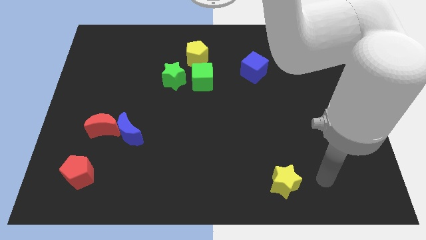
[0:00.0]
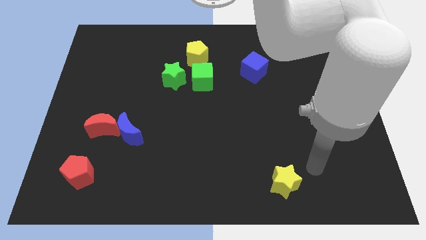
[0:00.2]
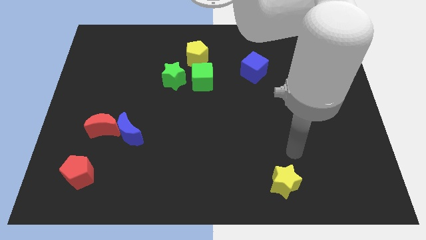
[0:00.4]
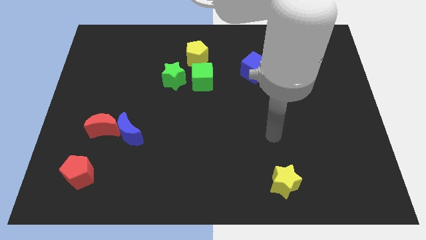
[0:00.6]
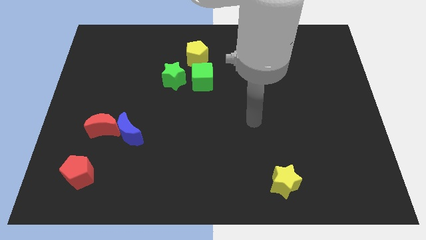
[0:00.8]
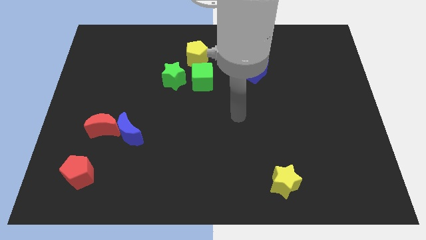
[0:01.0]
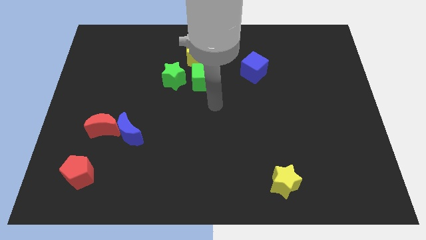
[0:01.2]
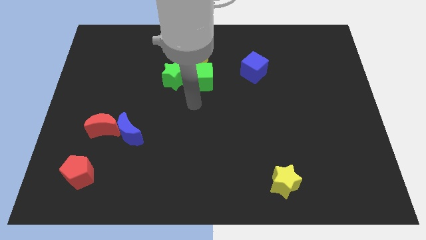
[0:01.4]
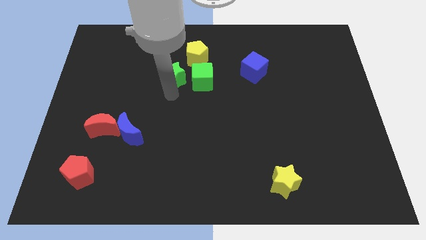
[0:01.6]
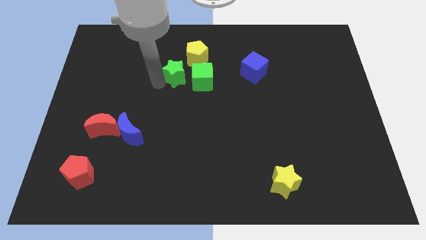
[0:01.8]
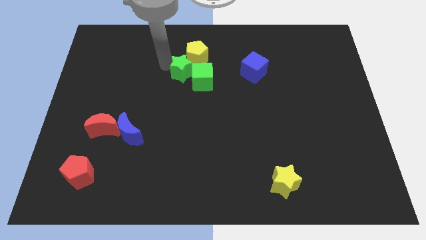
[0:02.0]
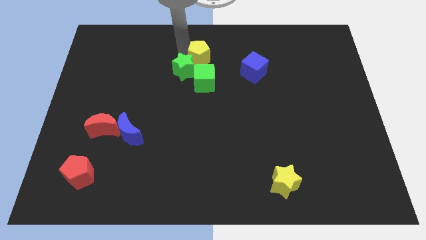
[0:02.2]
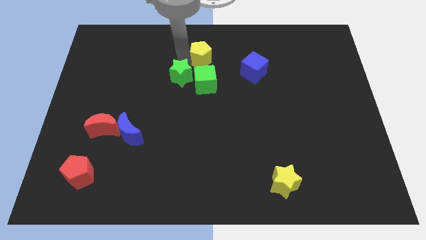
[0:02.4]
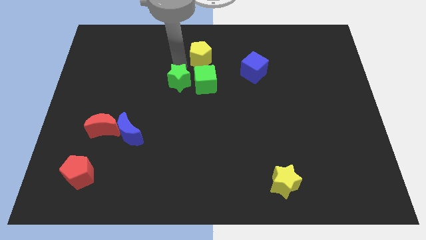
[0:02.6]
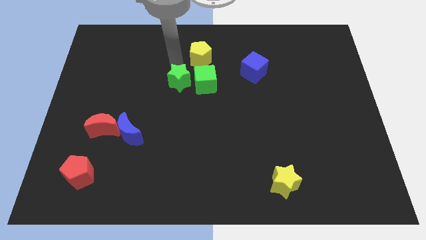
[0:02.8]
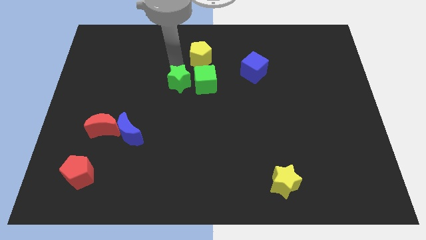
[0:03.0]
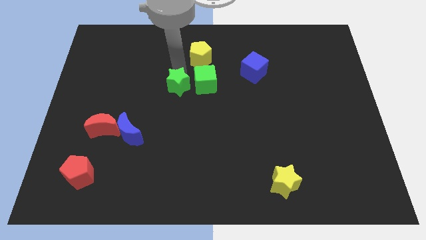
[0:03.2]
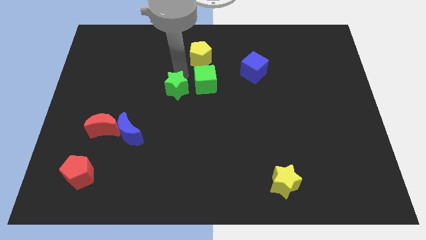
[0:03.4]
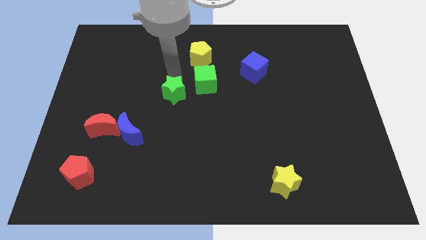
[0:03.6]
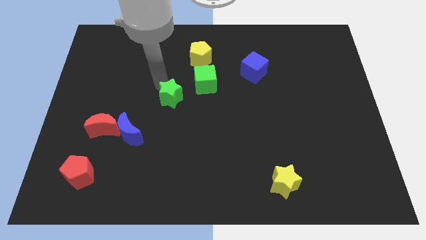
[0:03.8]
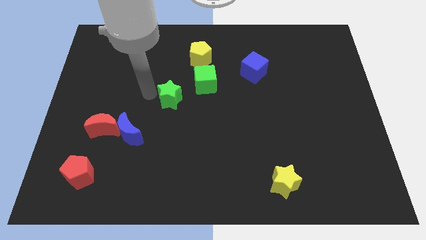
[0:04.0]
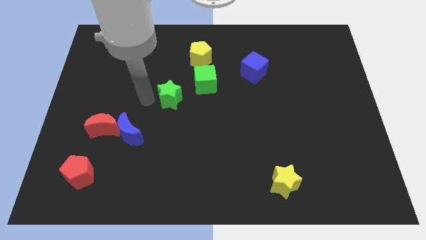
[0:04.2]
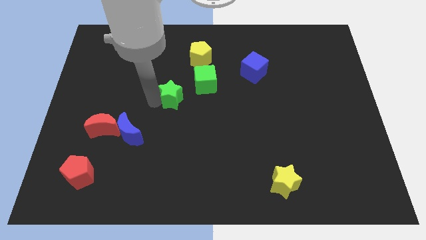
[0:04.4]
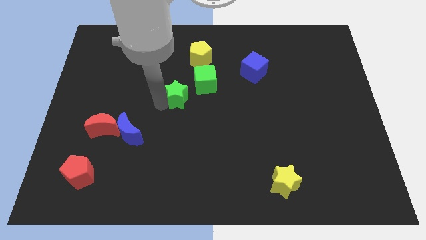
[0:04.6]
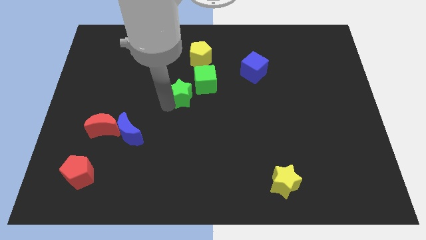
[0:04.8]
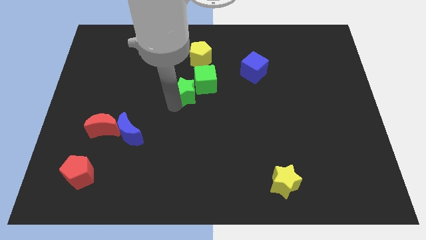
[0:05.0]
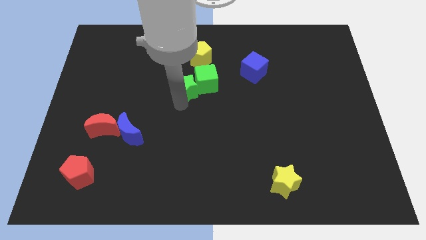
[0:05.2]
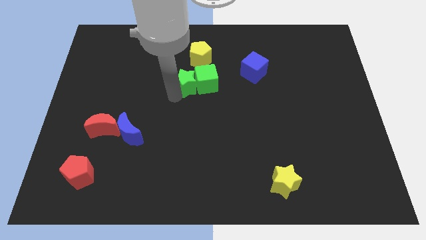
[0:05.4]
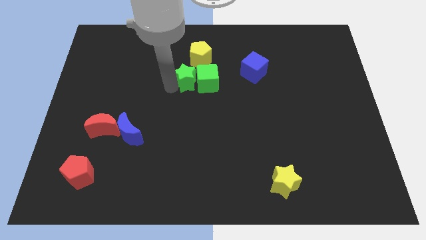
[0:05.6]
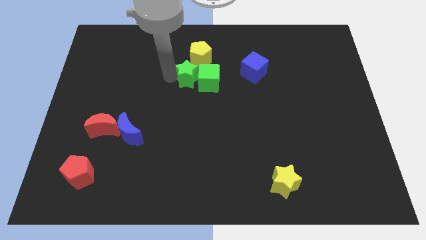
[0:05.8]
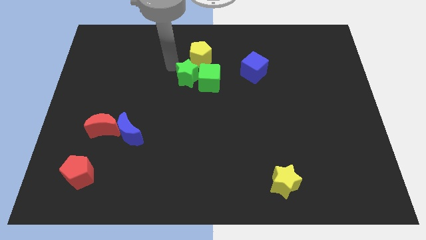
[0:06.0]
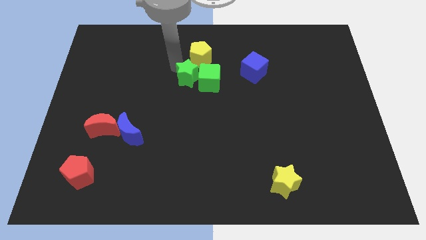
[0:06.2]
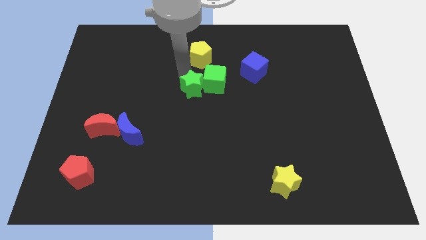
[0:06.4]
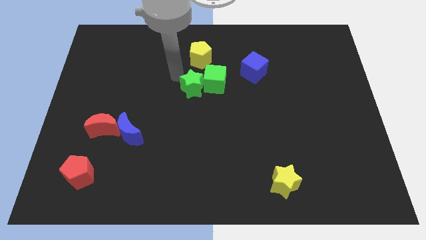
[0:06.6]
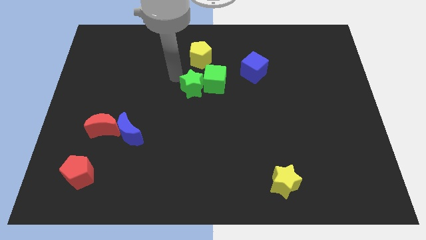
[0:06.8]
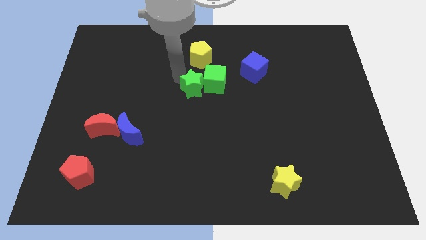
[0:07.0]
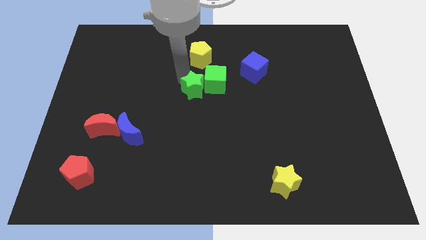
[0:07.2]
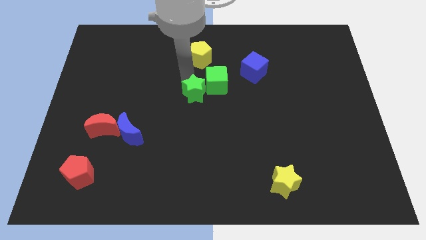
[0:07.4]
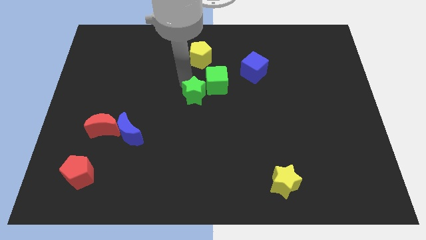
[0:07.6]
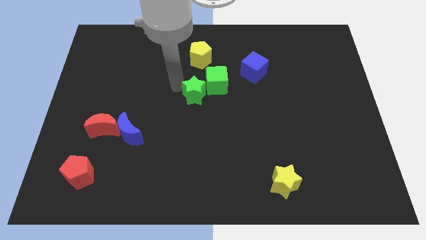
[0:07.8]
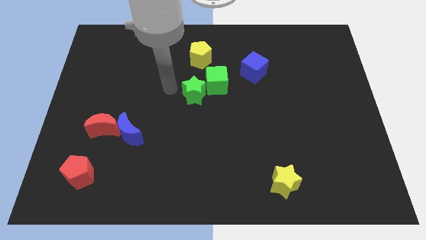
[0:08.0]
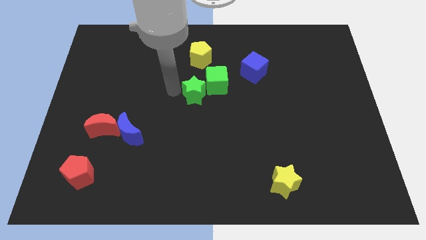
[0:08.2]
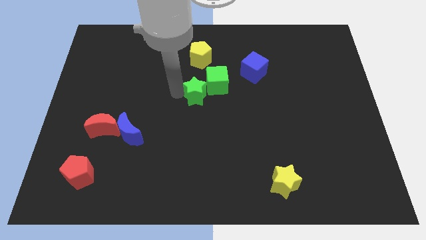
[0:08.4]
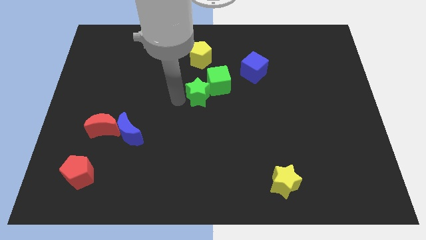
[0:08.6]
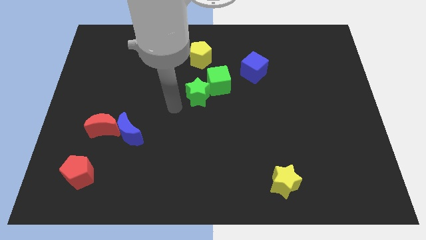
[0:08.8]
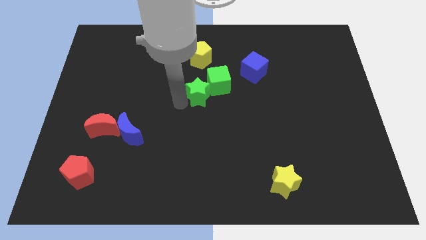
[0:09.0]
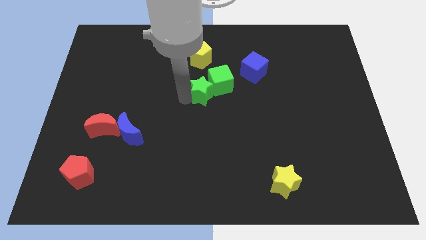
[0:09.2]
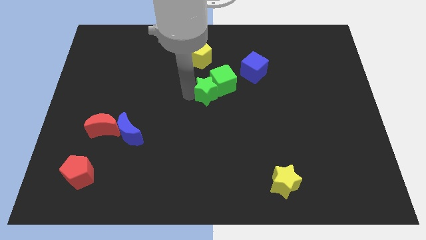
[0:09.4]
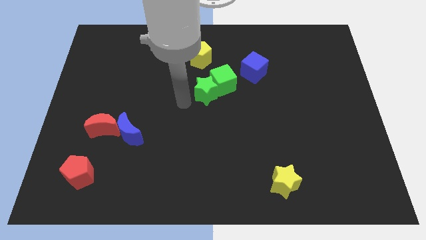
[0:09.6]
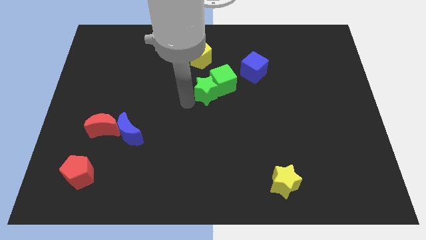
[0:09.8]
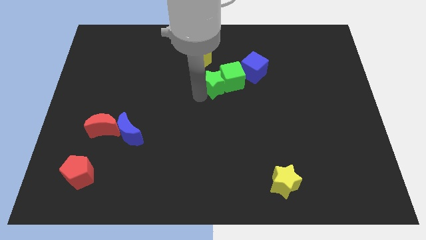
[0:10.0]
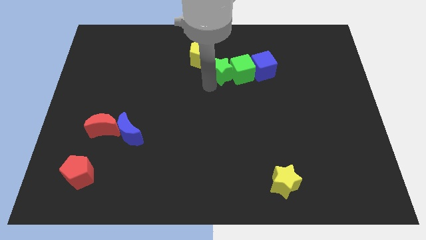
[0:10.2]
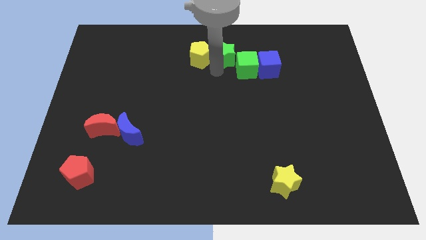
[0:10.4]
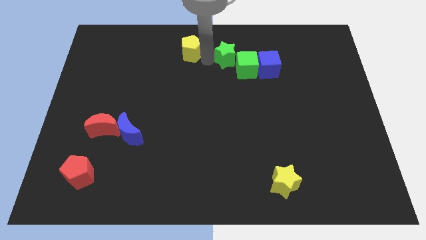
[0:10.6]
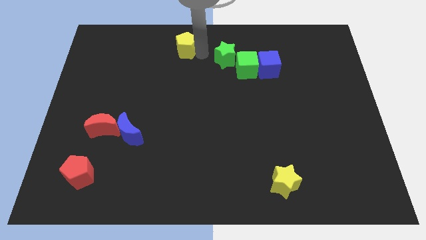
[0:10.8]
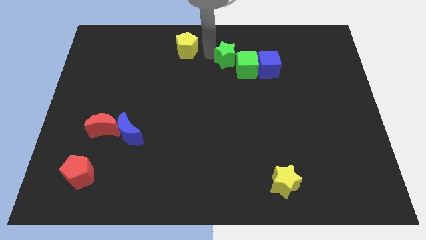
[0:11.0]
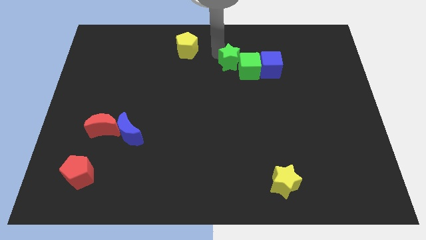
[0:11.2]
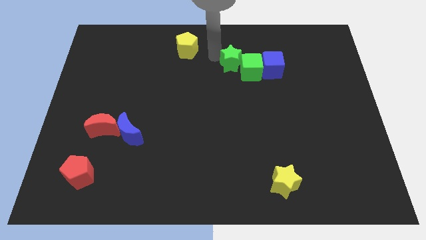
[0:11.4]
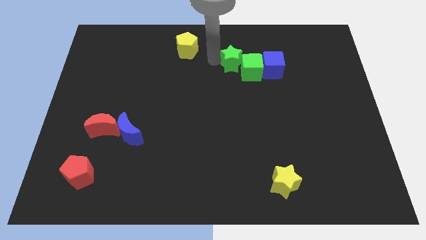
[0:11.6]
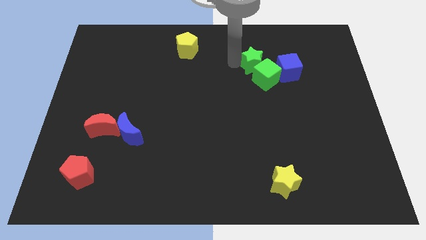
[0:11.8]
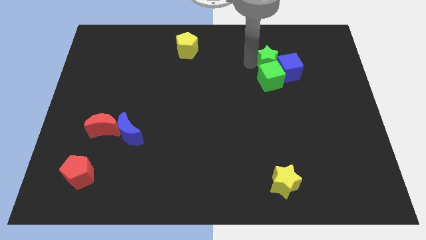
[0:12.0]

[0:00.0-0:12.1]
push the green star to the blue cube
